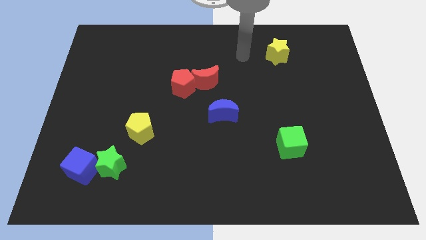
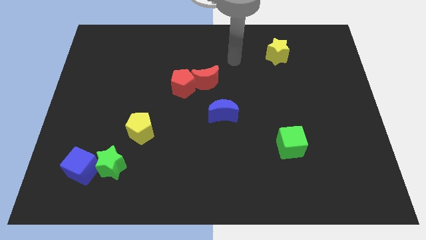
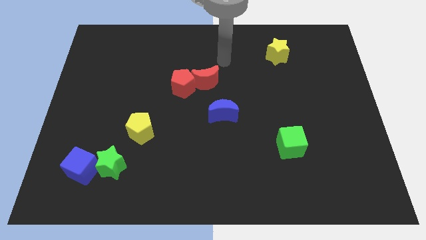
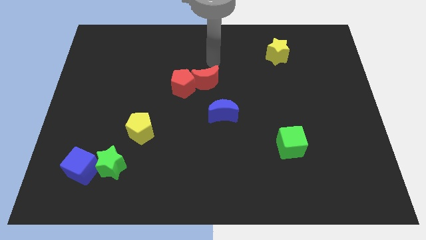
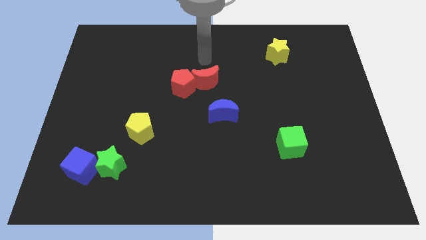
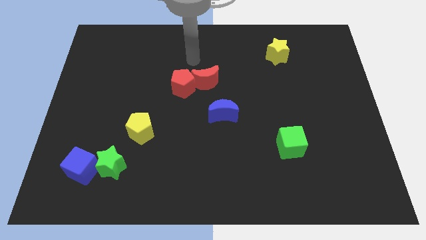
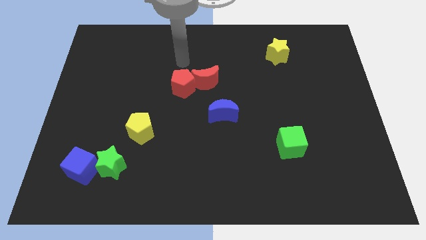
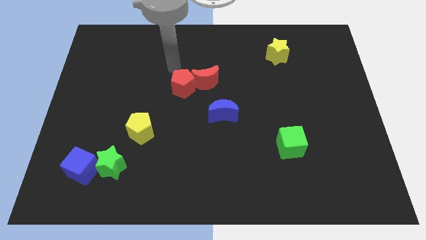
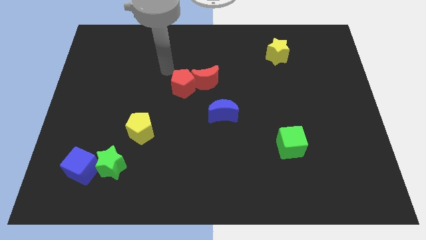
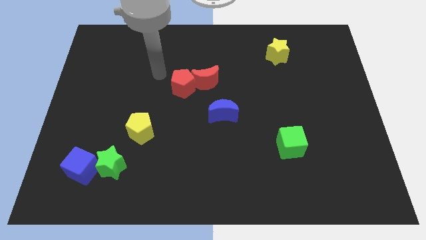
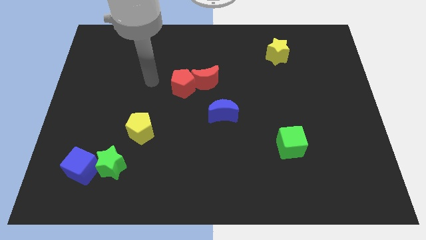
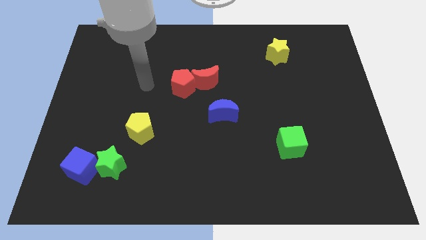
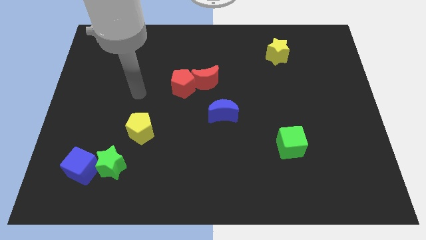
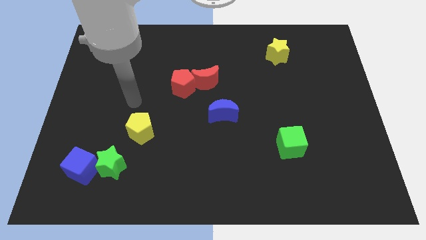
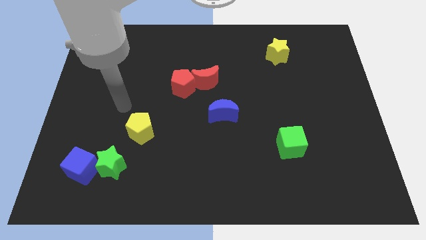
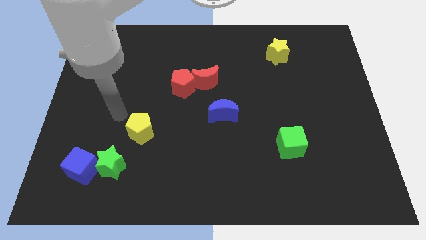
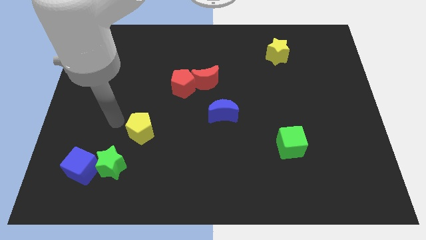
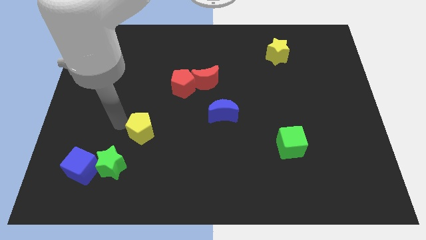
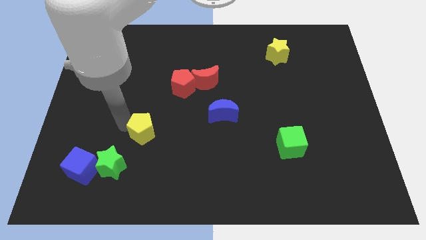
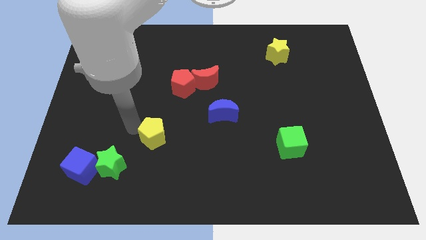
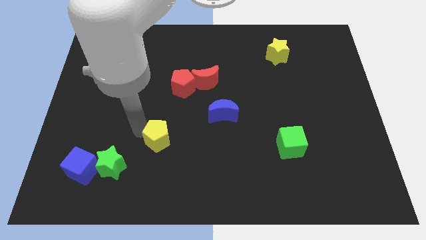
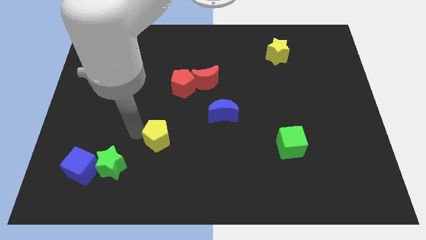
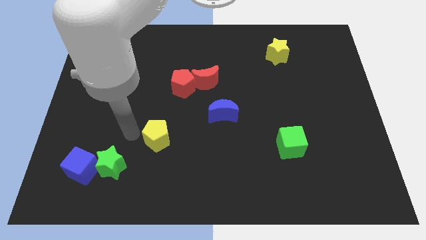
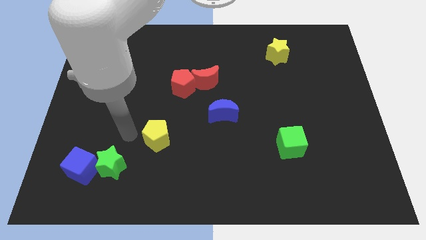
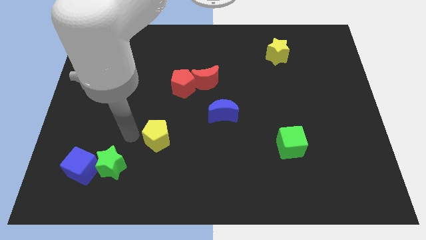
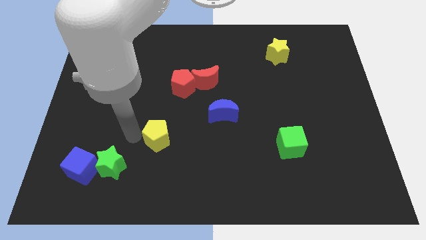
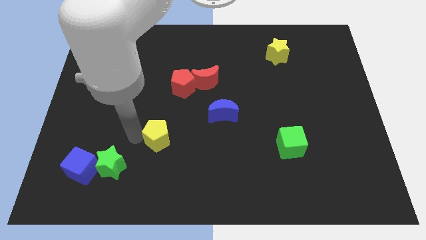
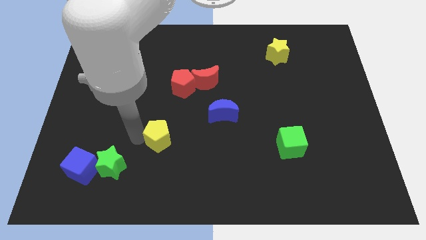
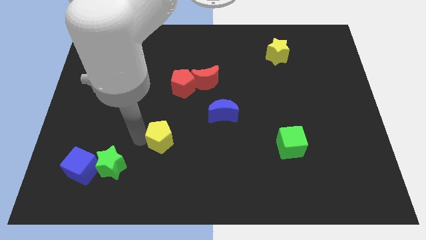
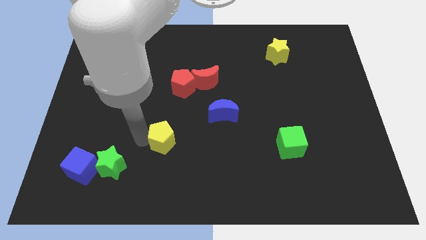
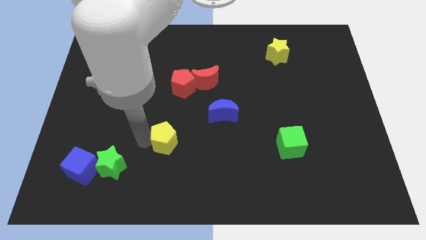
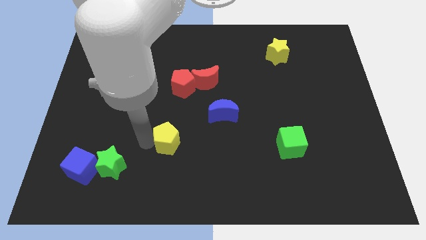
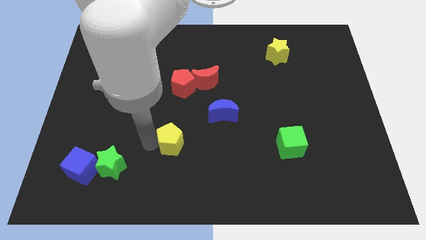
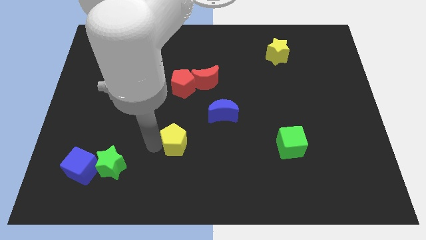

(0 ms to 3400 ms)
move the yellow pentagon to the right a little

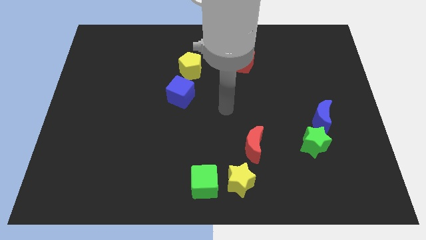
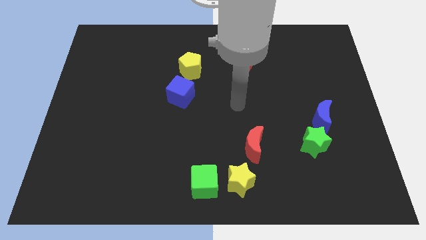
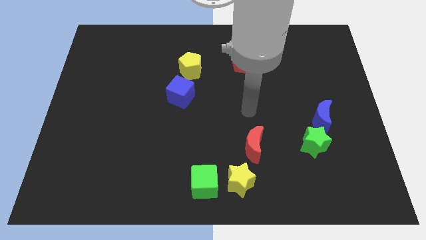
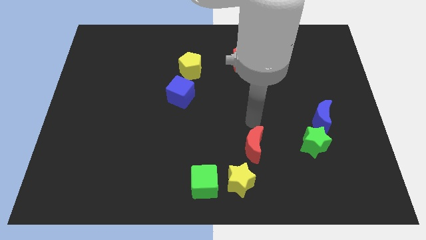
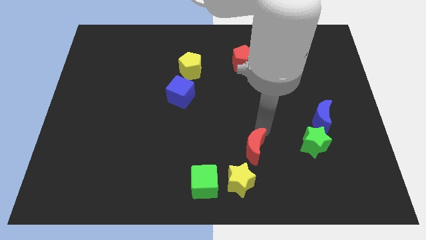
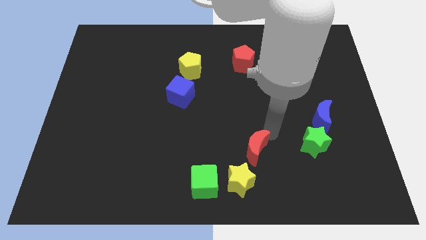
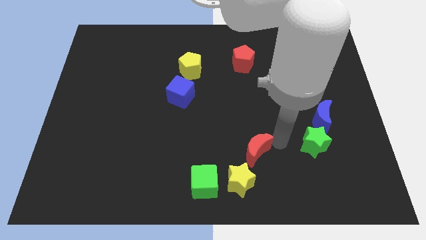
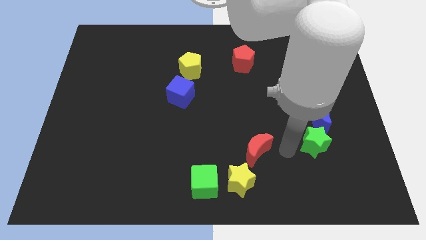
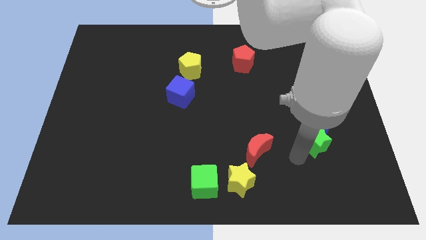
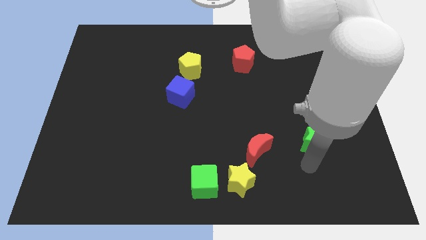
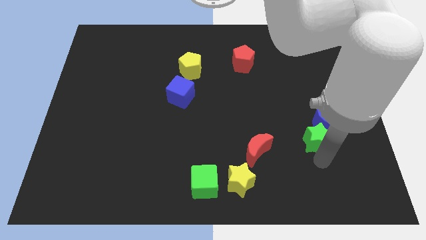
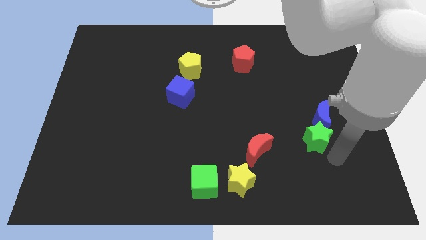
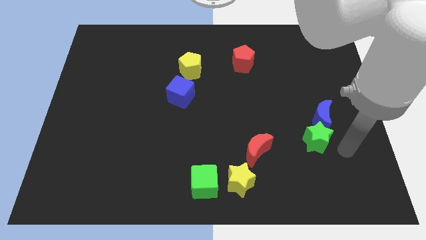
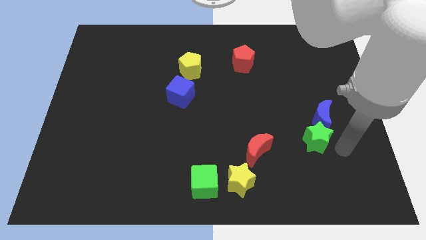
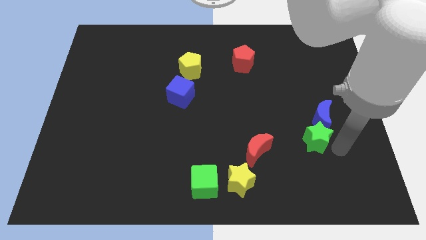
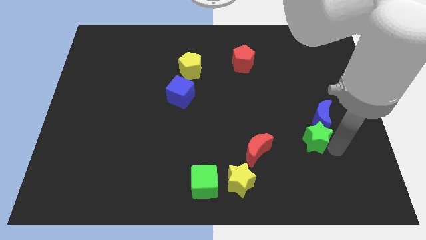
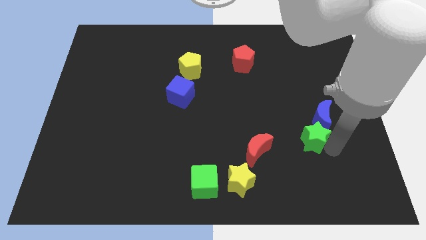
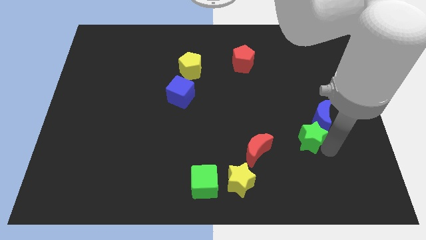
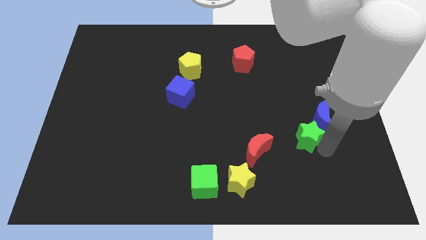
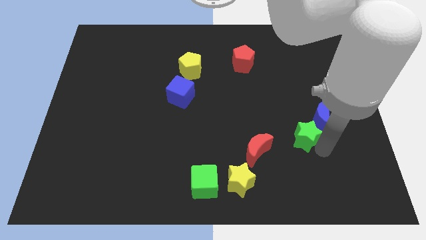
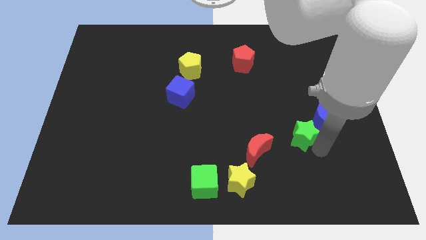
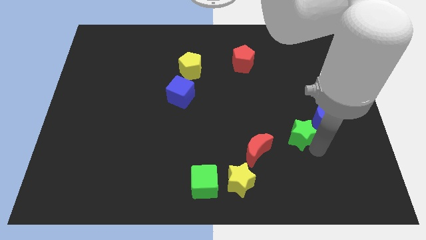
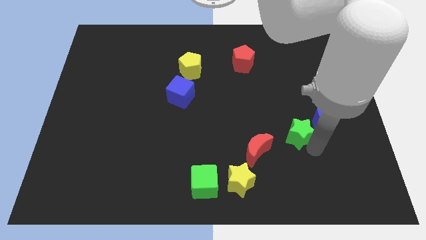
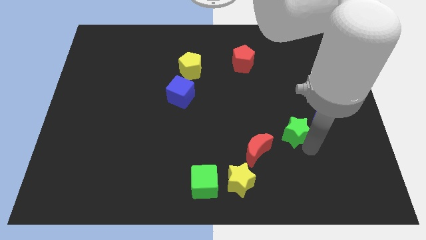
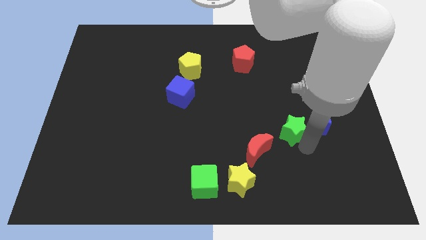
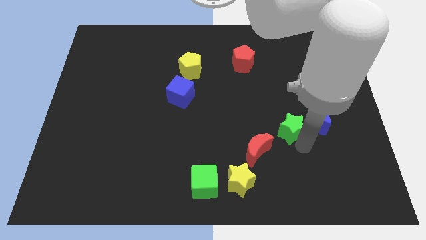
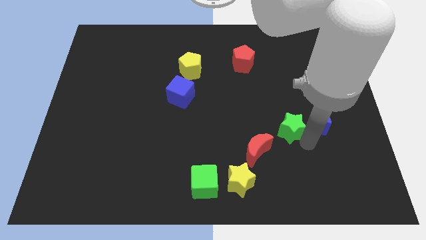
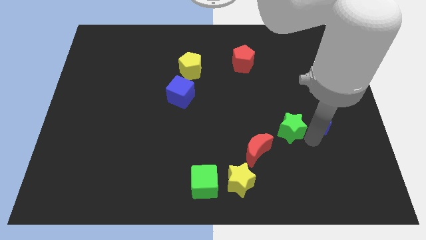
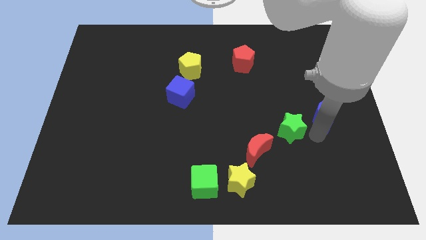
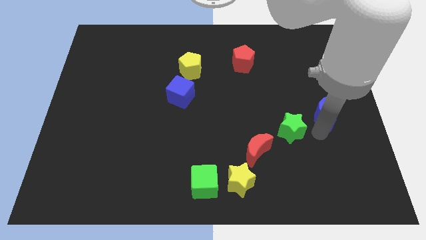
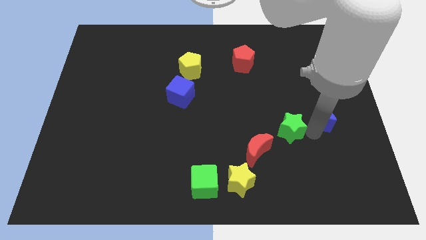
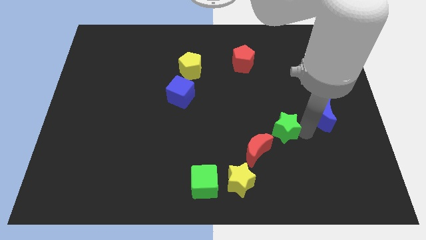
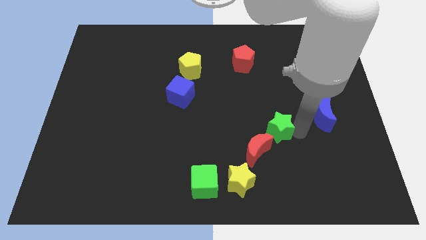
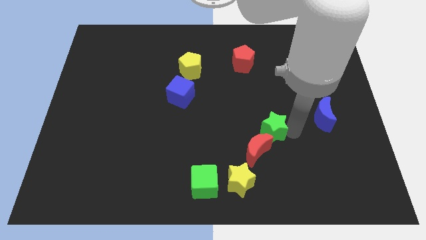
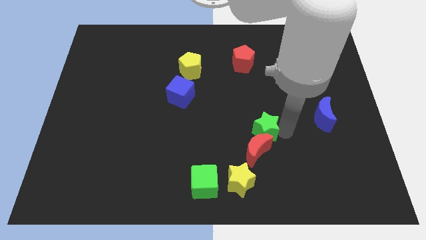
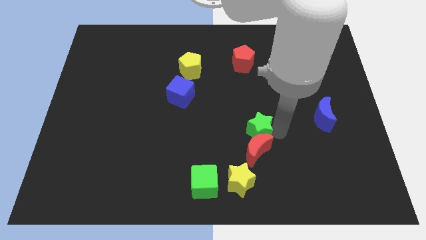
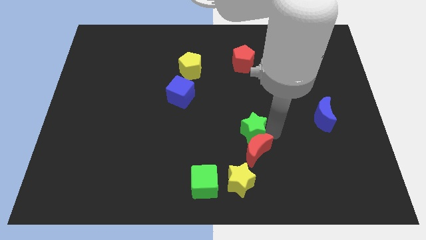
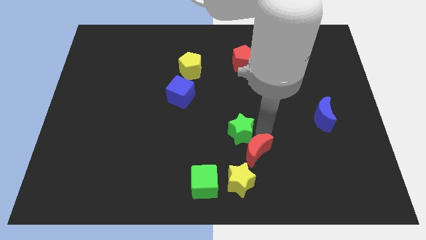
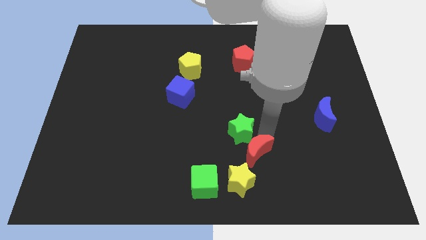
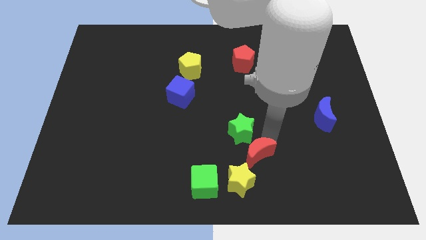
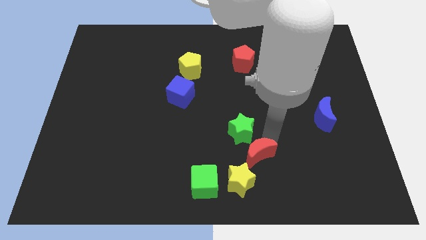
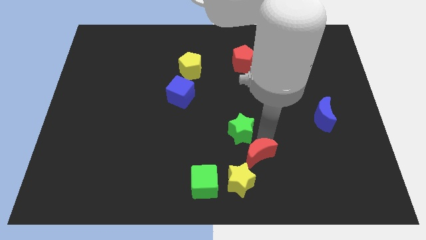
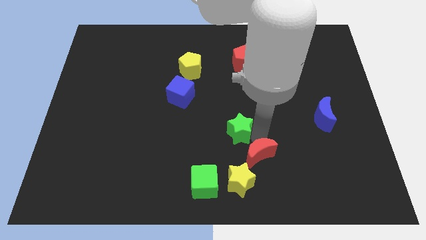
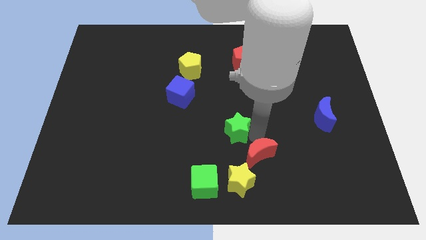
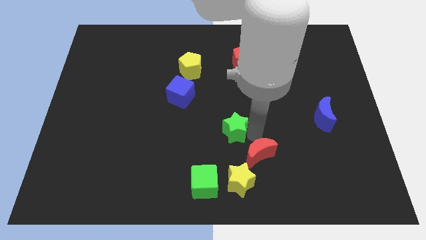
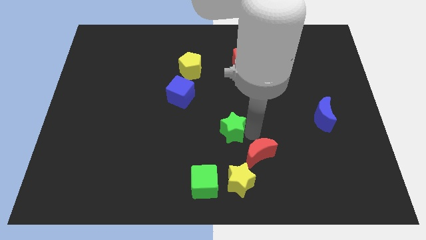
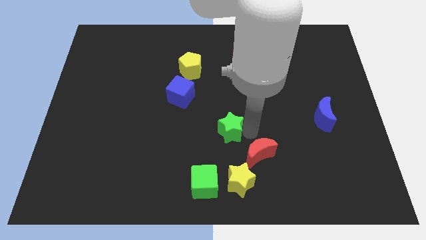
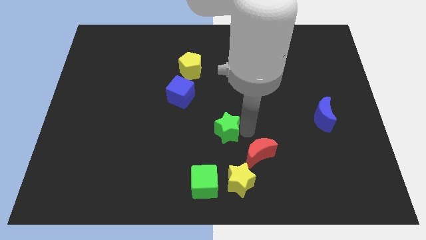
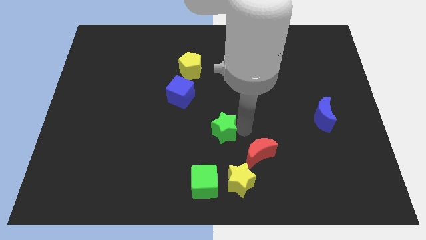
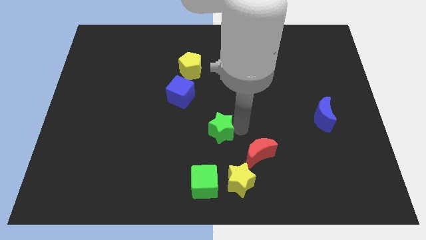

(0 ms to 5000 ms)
move the green star left
